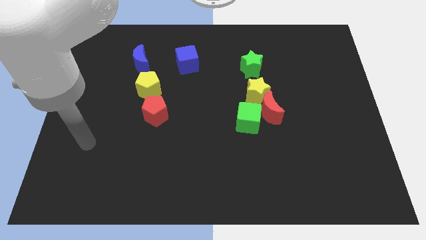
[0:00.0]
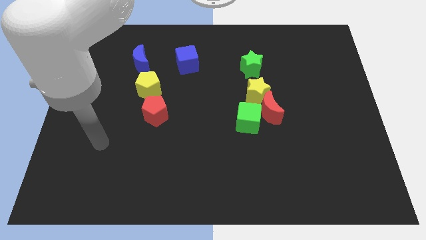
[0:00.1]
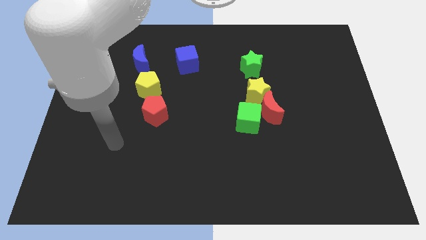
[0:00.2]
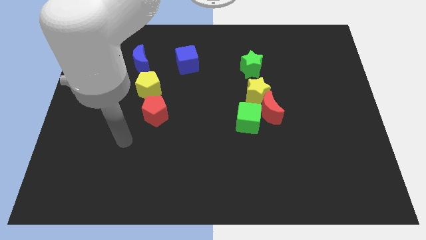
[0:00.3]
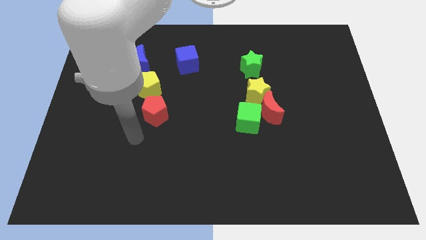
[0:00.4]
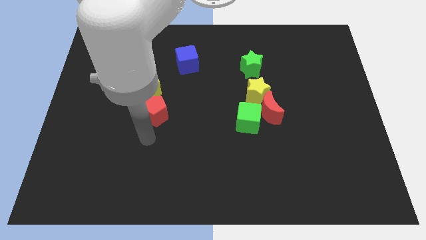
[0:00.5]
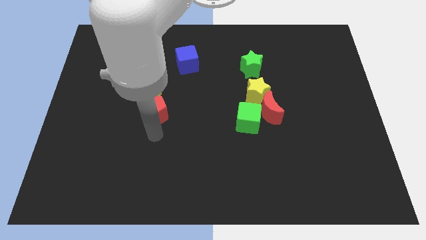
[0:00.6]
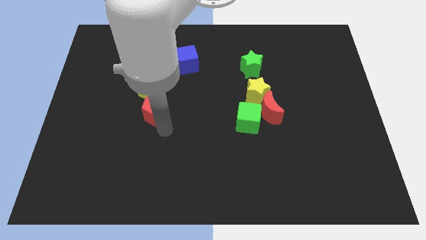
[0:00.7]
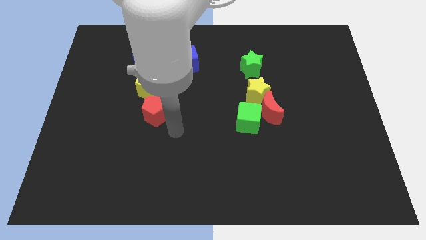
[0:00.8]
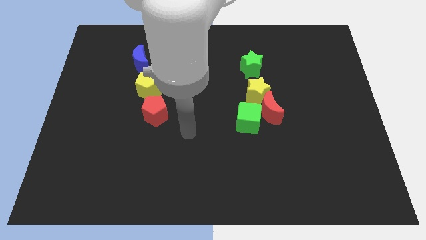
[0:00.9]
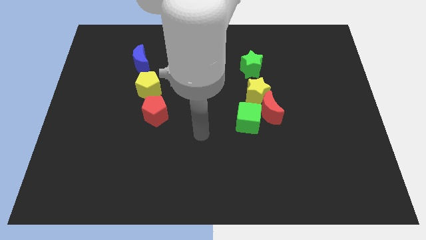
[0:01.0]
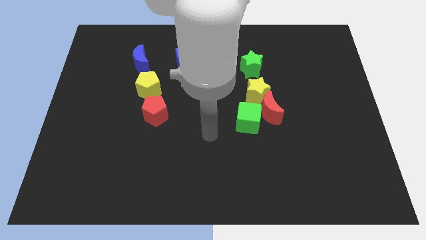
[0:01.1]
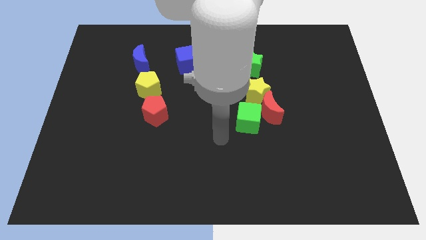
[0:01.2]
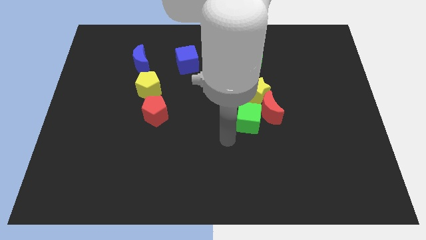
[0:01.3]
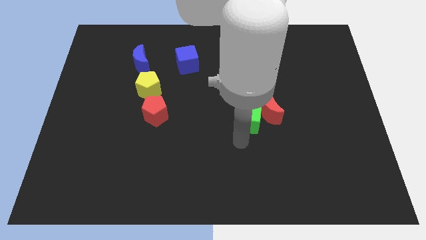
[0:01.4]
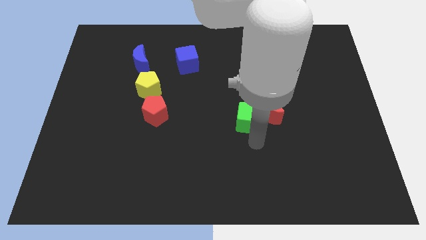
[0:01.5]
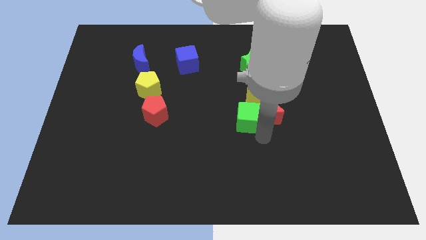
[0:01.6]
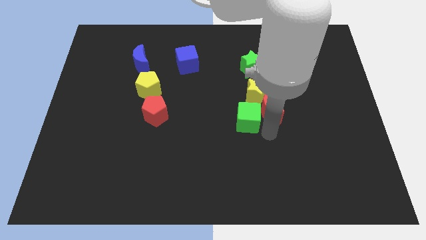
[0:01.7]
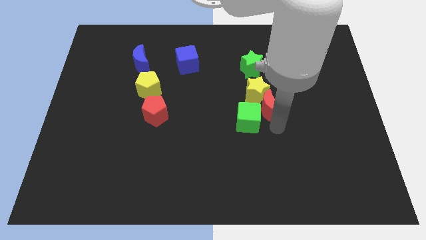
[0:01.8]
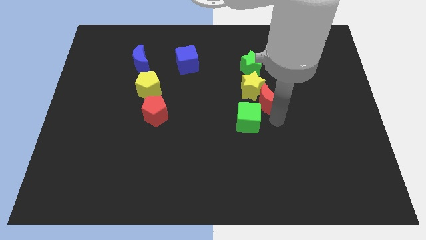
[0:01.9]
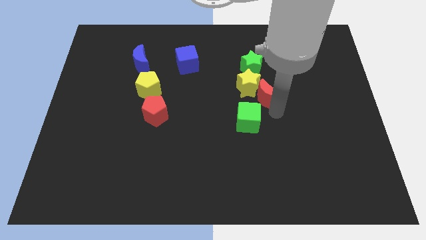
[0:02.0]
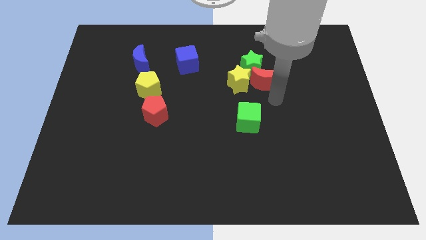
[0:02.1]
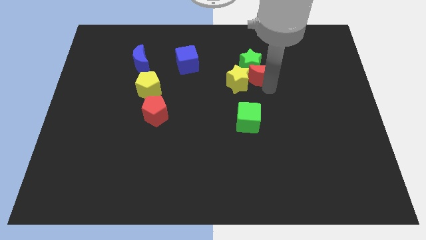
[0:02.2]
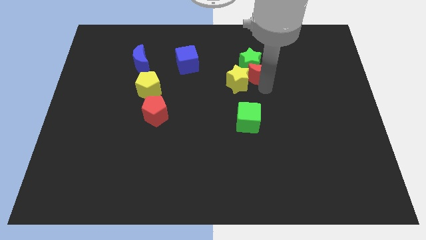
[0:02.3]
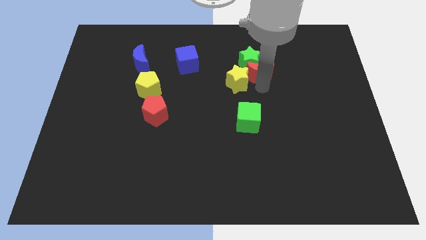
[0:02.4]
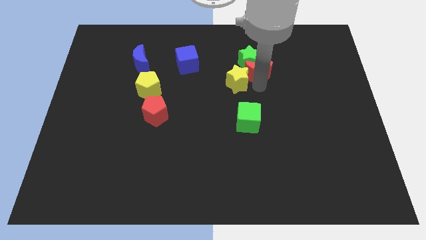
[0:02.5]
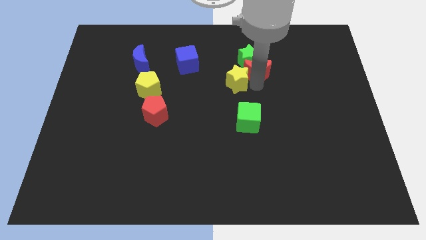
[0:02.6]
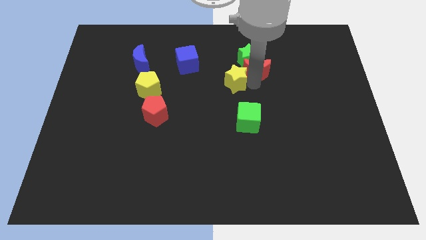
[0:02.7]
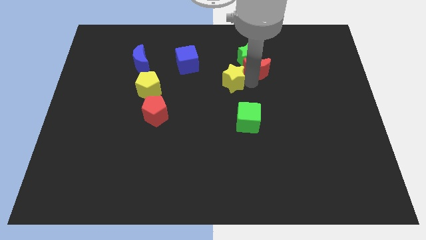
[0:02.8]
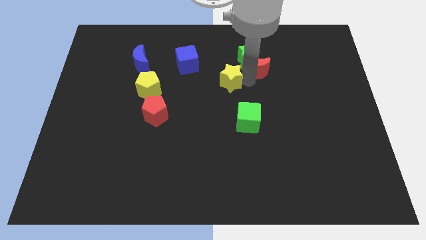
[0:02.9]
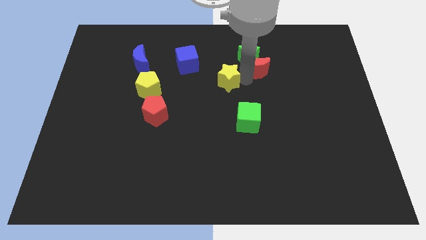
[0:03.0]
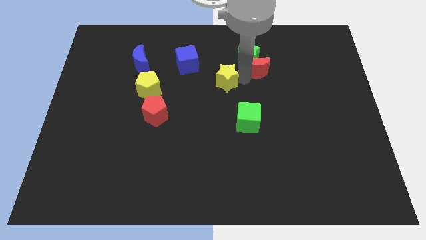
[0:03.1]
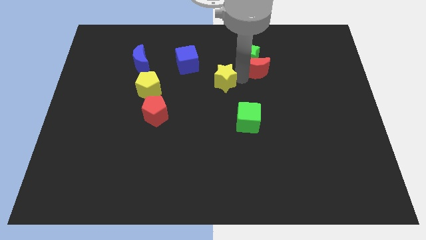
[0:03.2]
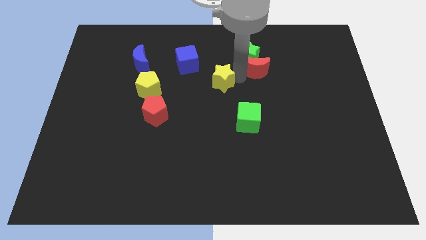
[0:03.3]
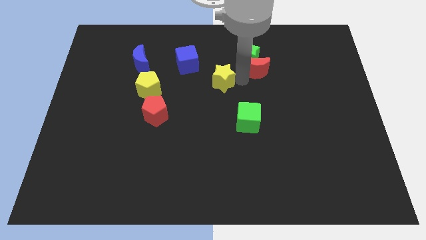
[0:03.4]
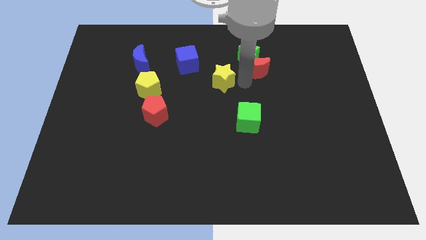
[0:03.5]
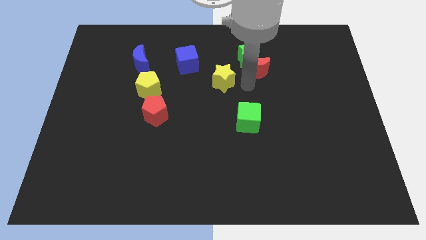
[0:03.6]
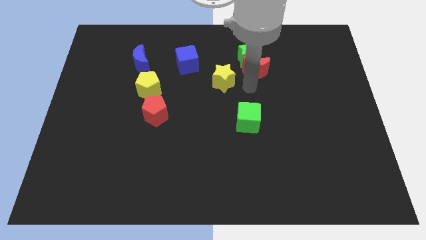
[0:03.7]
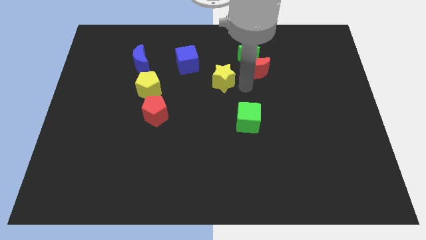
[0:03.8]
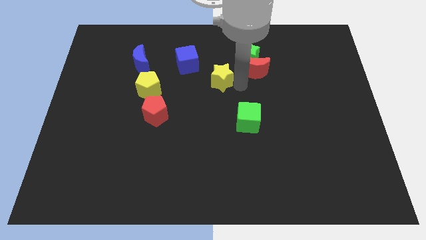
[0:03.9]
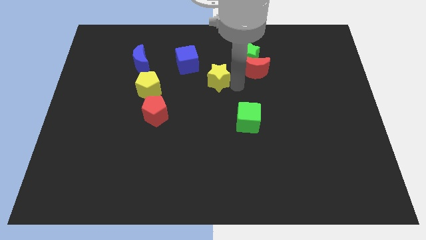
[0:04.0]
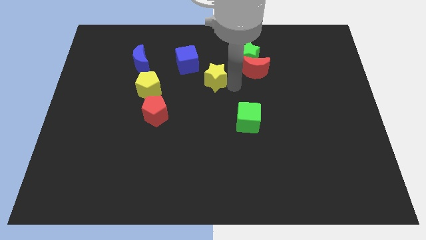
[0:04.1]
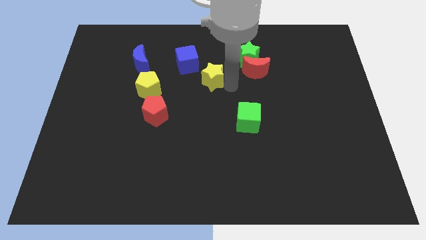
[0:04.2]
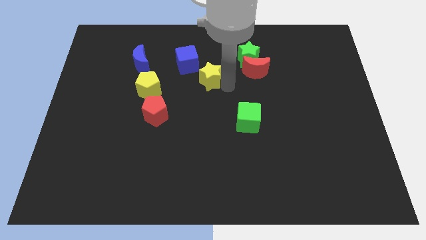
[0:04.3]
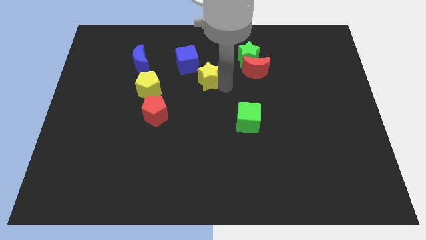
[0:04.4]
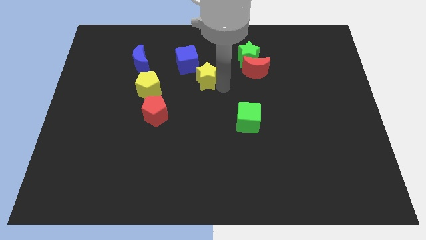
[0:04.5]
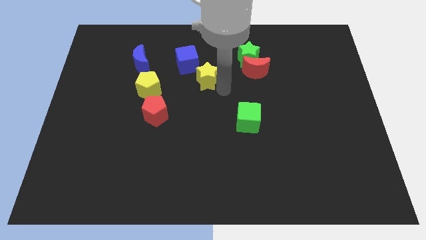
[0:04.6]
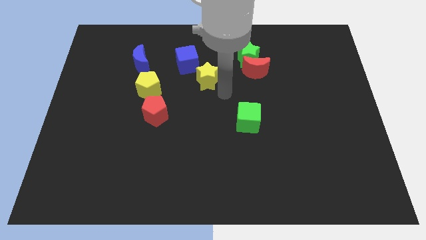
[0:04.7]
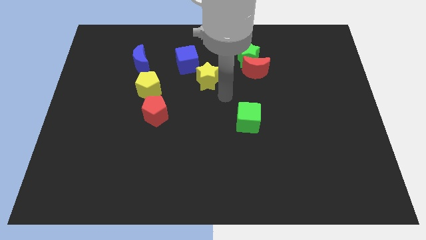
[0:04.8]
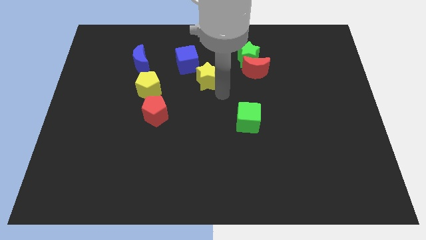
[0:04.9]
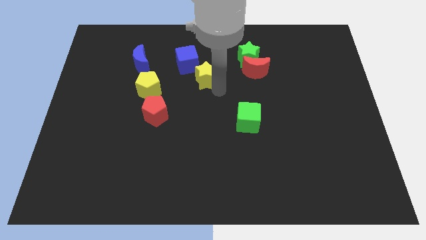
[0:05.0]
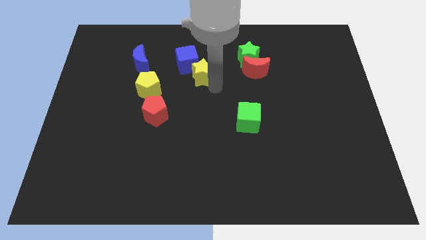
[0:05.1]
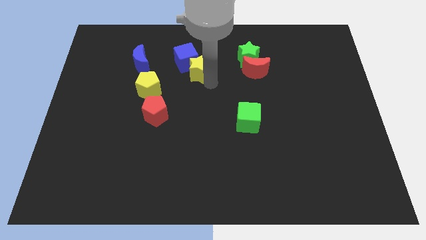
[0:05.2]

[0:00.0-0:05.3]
move the yellow star close to the blue cube

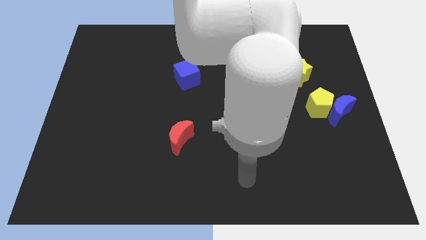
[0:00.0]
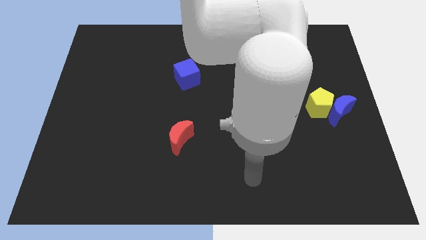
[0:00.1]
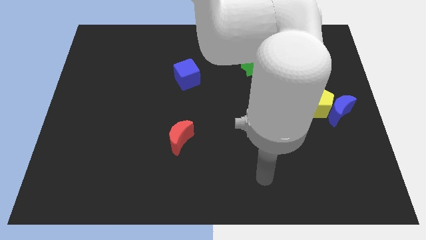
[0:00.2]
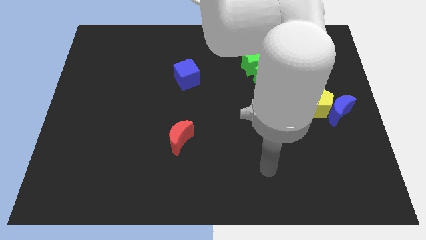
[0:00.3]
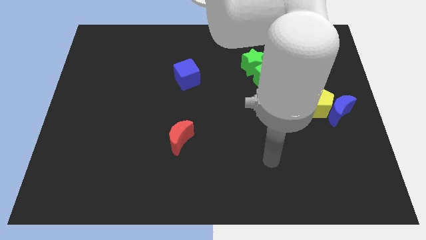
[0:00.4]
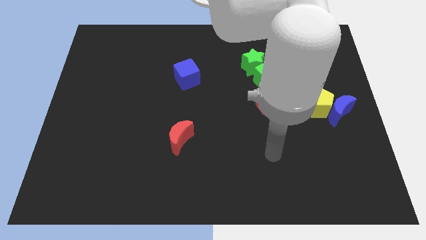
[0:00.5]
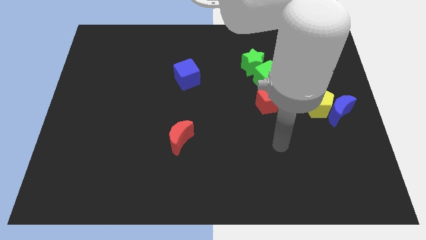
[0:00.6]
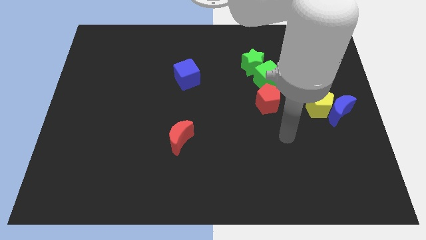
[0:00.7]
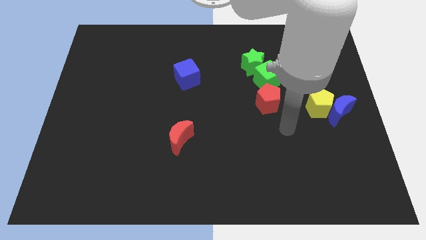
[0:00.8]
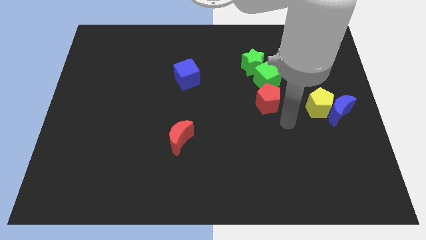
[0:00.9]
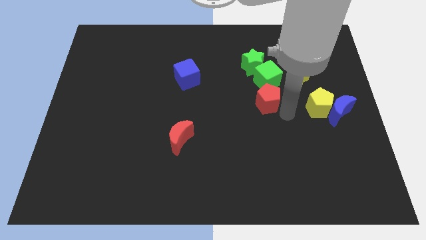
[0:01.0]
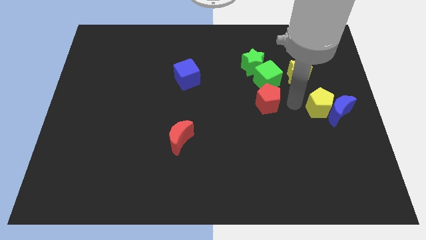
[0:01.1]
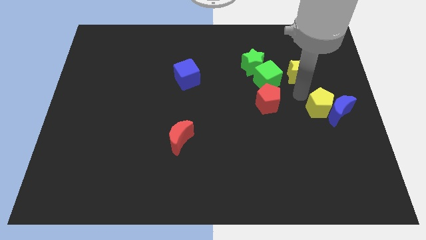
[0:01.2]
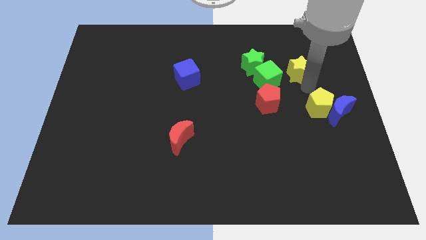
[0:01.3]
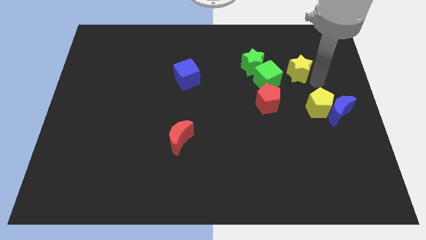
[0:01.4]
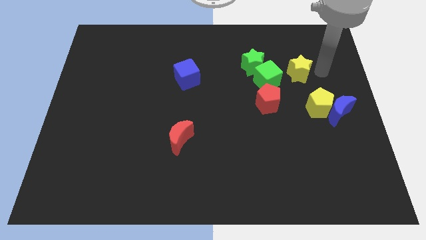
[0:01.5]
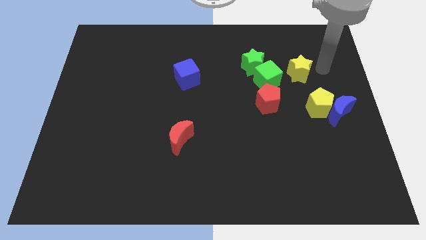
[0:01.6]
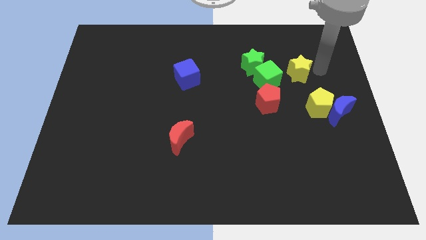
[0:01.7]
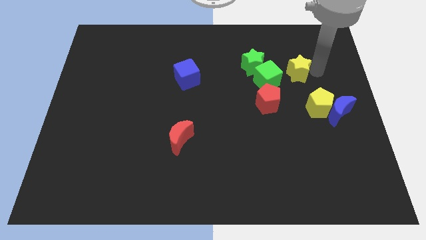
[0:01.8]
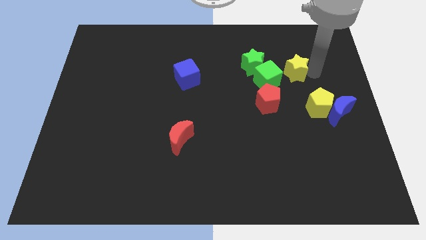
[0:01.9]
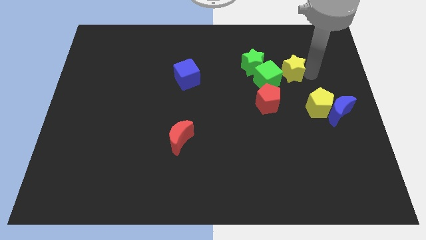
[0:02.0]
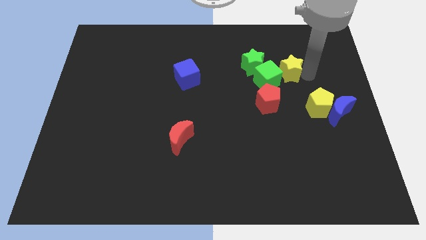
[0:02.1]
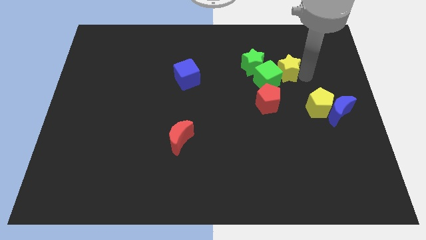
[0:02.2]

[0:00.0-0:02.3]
move the yellow star towards the green cube
